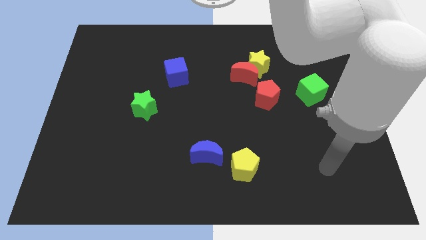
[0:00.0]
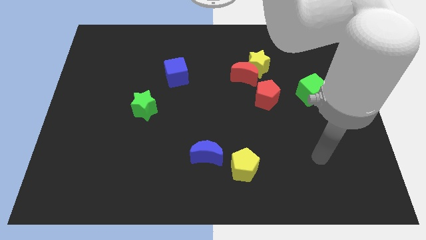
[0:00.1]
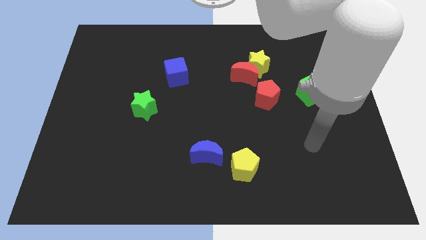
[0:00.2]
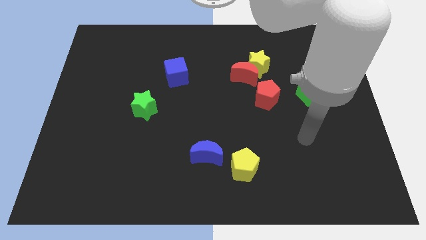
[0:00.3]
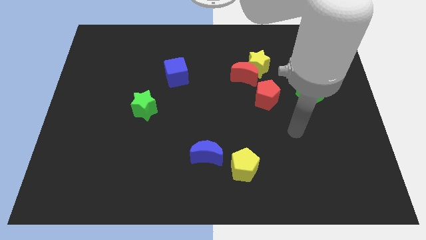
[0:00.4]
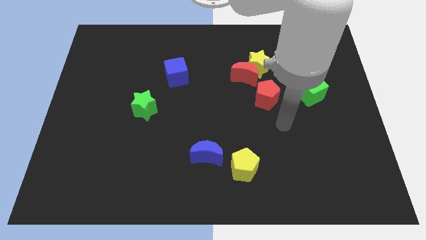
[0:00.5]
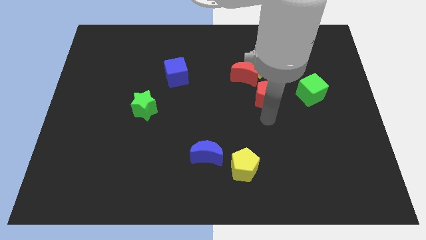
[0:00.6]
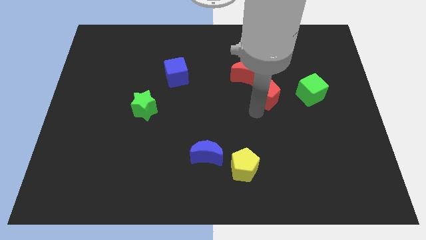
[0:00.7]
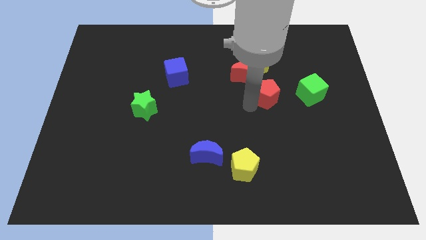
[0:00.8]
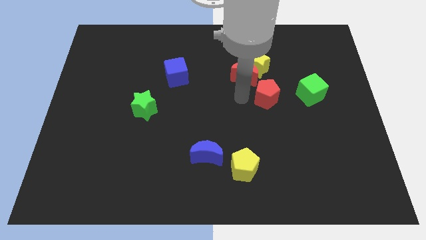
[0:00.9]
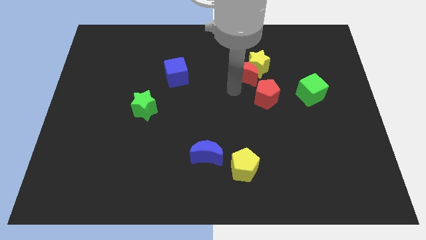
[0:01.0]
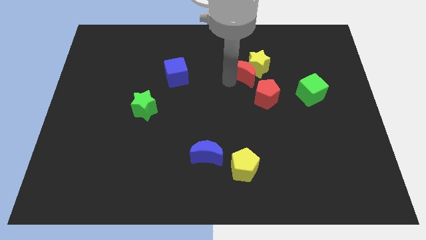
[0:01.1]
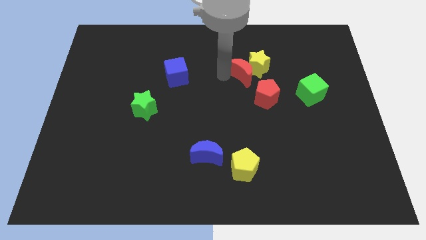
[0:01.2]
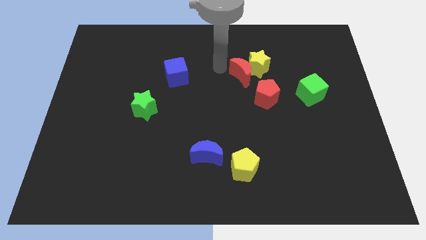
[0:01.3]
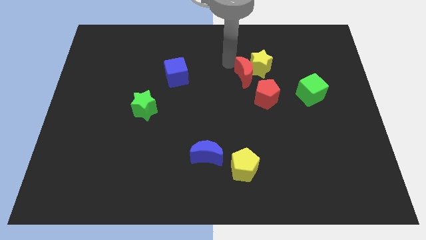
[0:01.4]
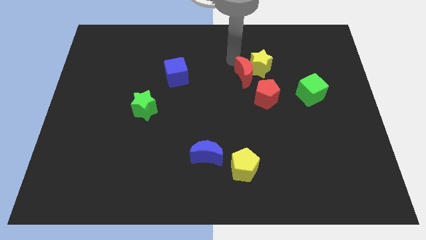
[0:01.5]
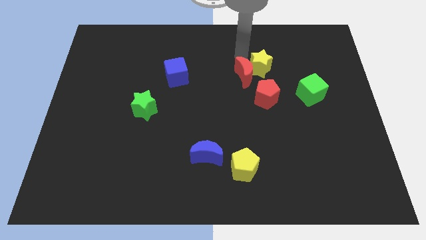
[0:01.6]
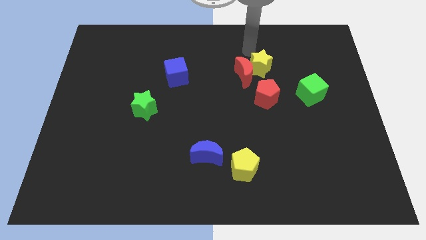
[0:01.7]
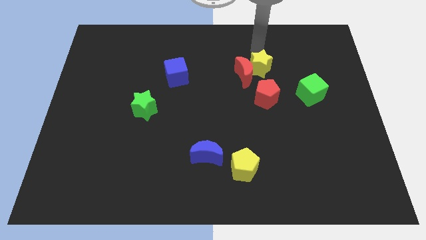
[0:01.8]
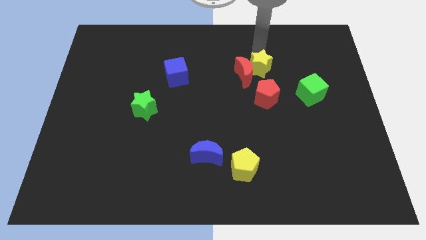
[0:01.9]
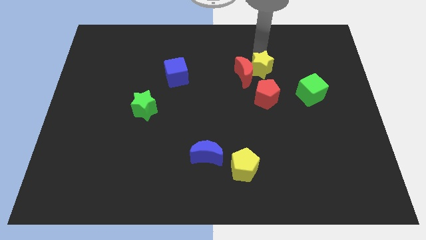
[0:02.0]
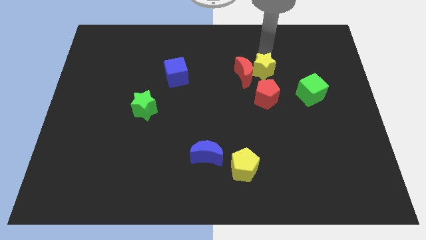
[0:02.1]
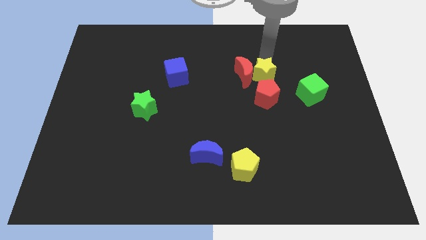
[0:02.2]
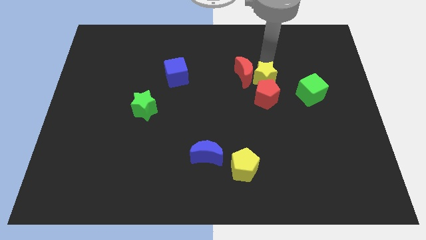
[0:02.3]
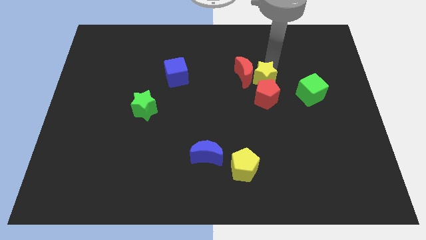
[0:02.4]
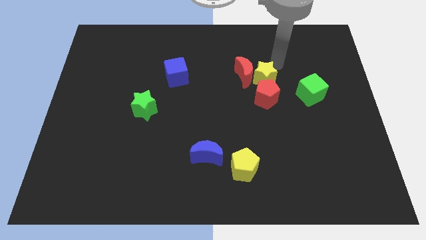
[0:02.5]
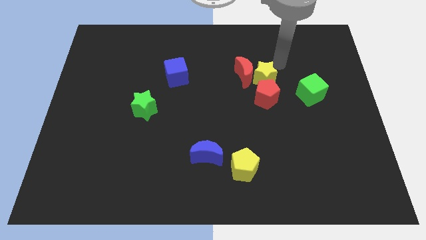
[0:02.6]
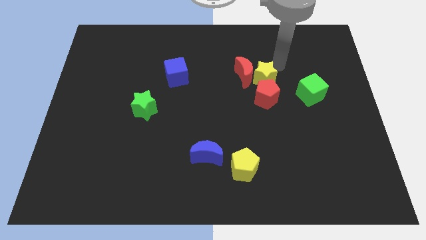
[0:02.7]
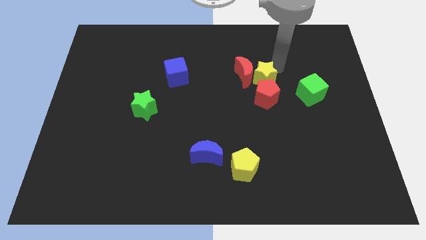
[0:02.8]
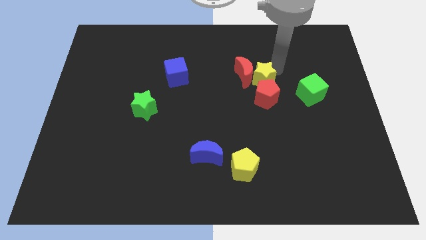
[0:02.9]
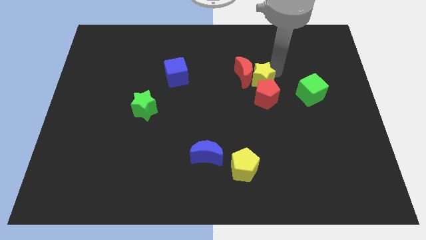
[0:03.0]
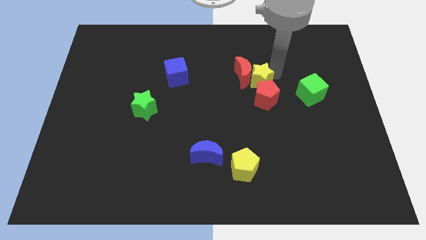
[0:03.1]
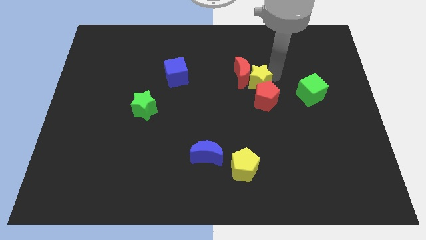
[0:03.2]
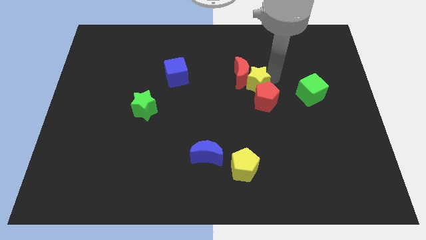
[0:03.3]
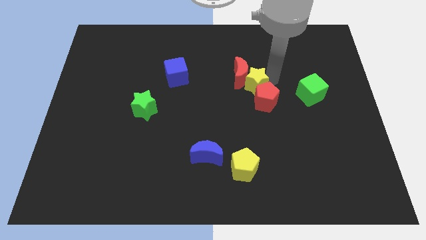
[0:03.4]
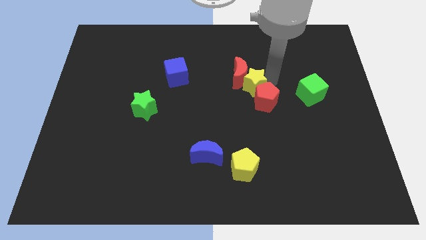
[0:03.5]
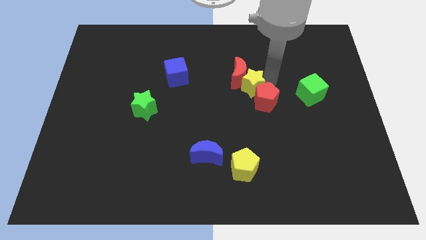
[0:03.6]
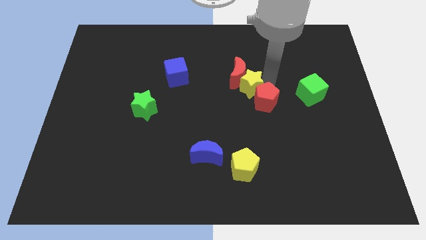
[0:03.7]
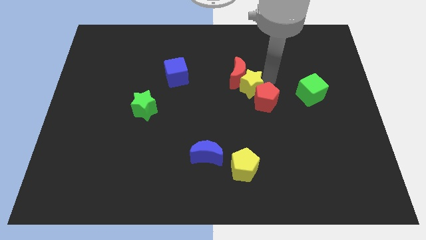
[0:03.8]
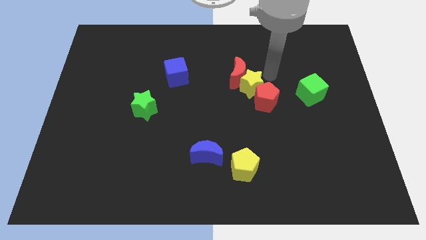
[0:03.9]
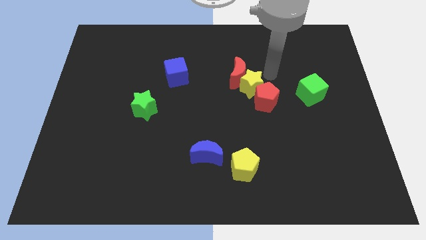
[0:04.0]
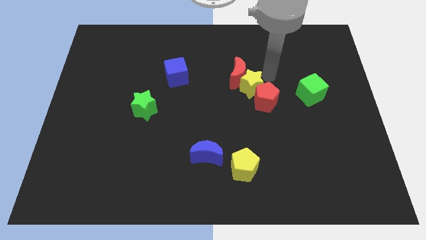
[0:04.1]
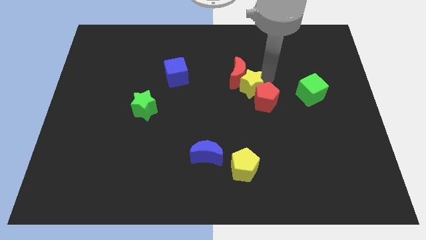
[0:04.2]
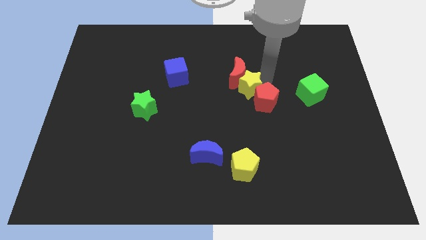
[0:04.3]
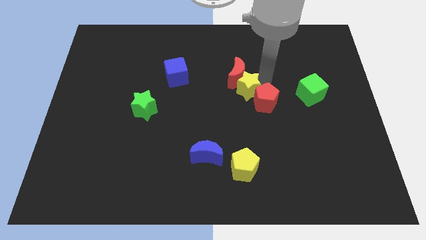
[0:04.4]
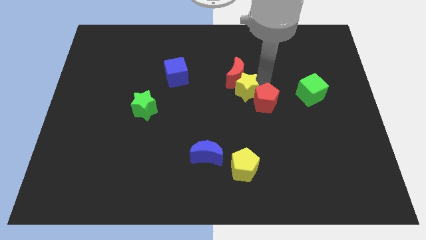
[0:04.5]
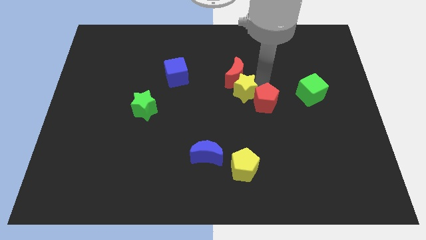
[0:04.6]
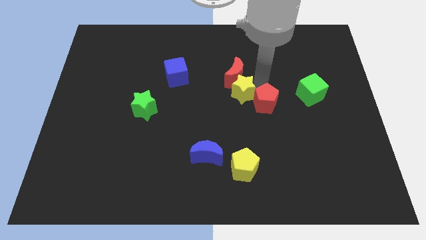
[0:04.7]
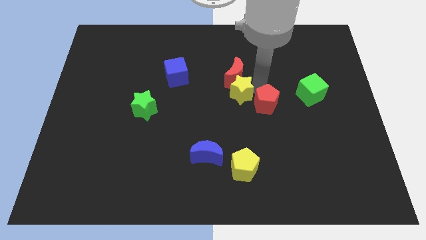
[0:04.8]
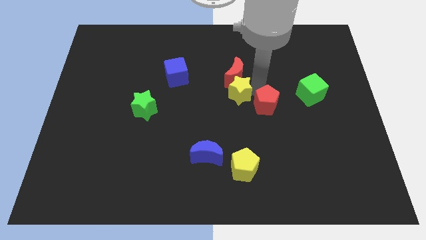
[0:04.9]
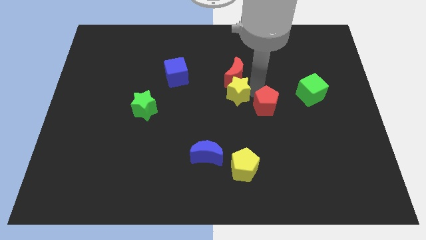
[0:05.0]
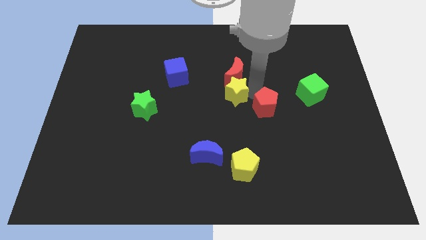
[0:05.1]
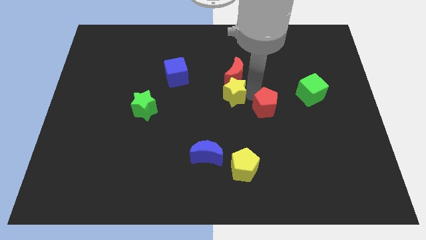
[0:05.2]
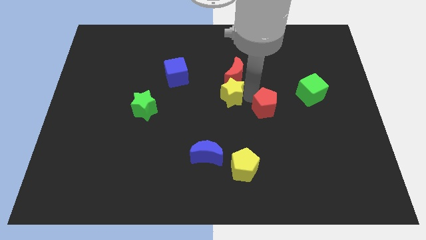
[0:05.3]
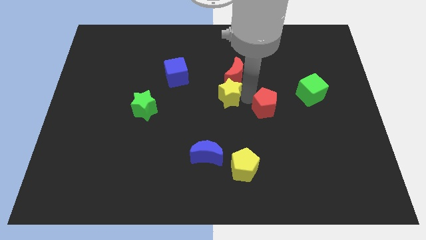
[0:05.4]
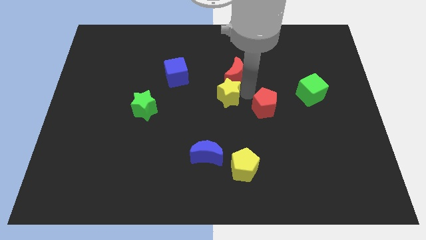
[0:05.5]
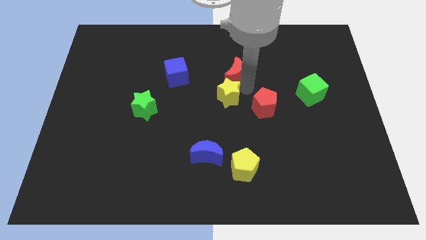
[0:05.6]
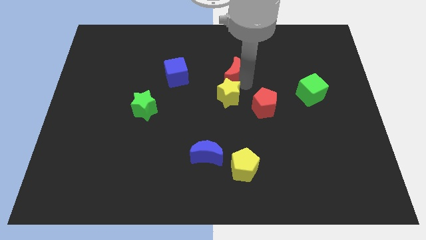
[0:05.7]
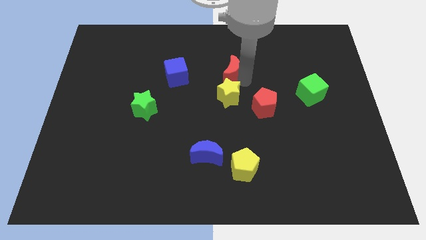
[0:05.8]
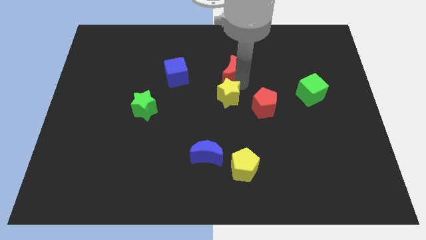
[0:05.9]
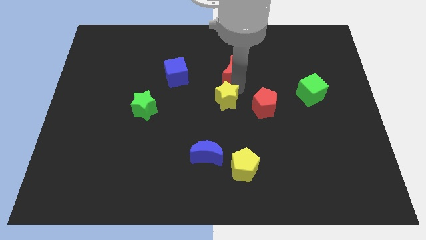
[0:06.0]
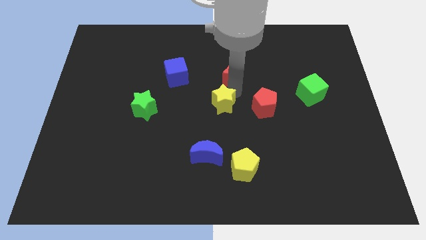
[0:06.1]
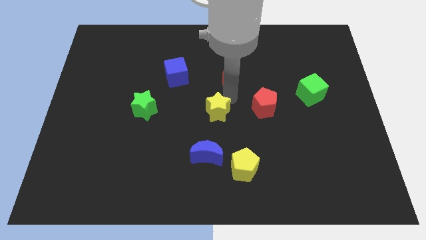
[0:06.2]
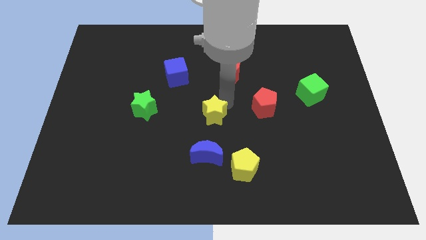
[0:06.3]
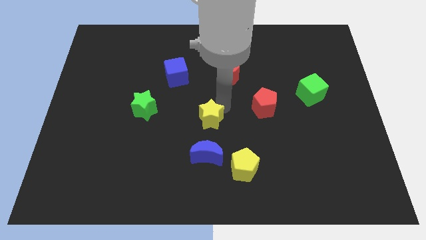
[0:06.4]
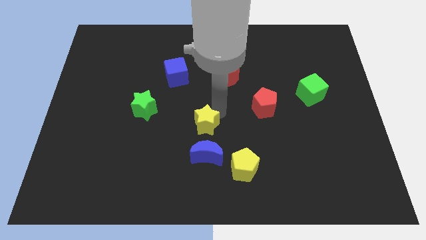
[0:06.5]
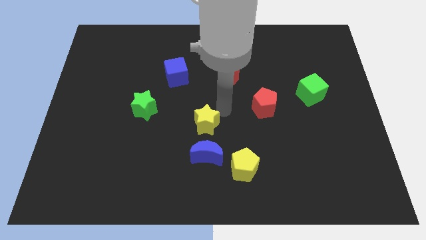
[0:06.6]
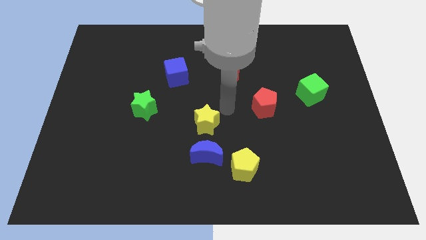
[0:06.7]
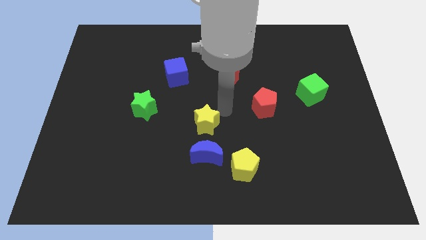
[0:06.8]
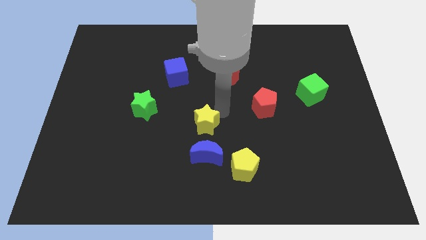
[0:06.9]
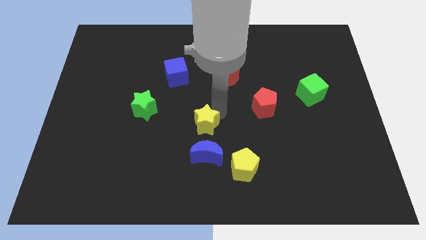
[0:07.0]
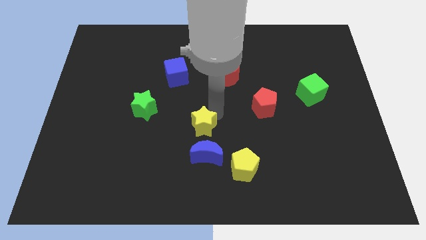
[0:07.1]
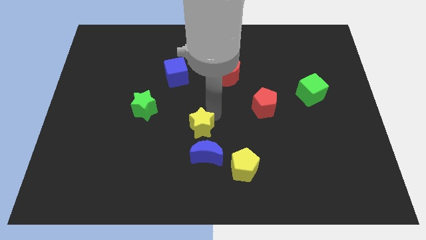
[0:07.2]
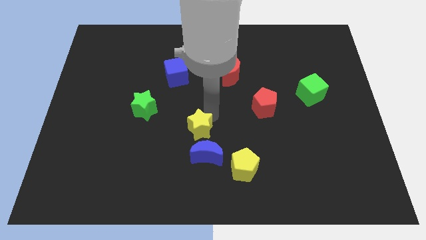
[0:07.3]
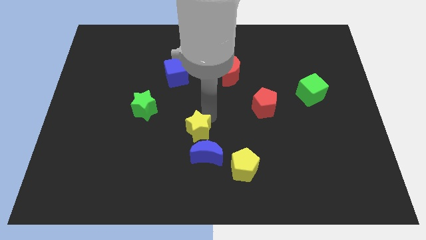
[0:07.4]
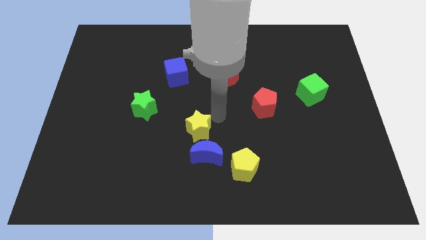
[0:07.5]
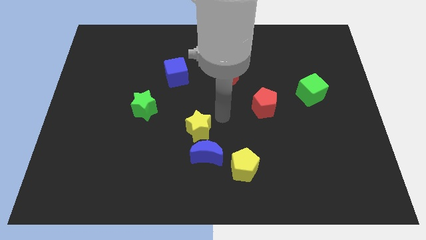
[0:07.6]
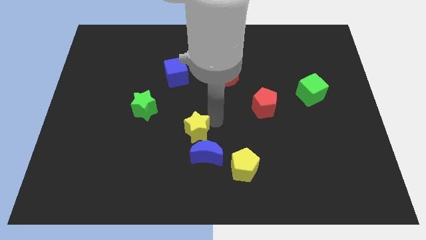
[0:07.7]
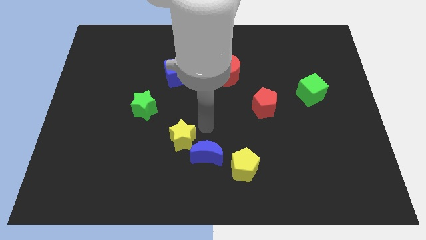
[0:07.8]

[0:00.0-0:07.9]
slide the yellow star to the left of the blue moon
